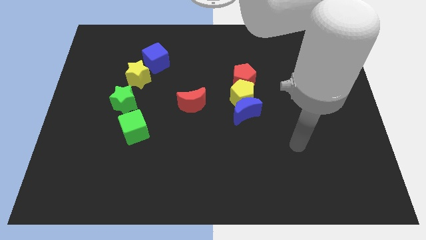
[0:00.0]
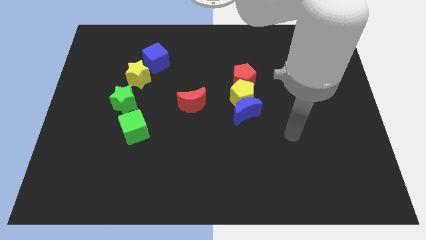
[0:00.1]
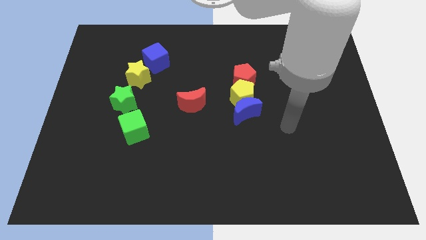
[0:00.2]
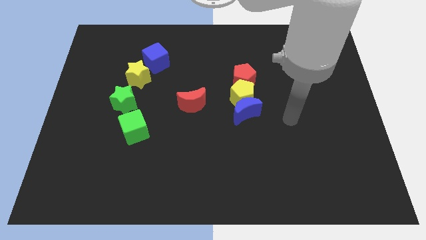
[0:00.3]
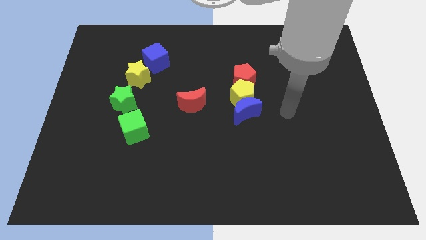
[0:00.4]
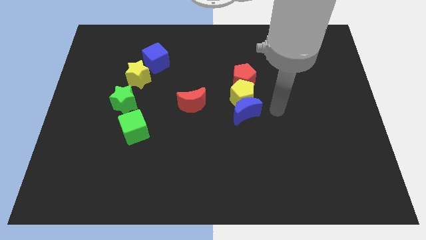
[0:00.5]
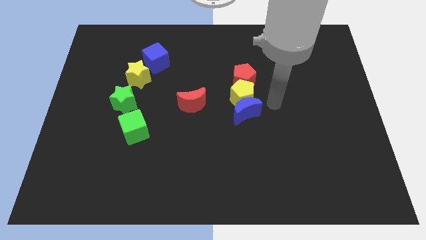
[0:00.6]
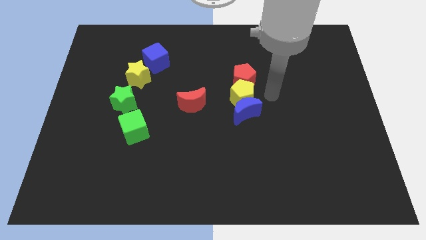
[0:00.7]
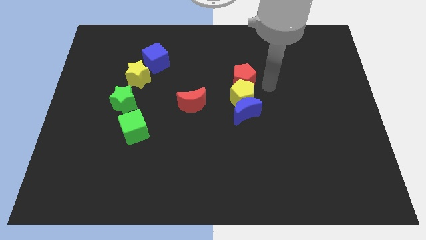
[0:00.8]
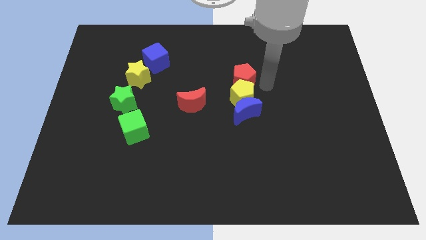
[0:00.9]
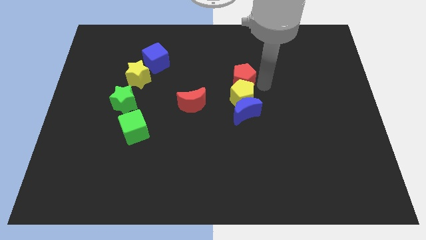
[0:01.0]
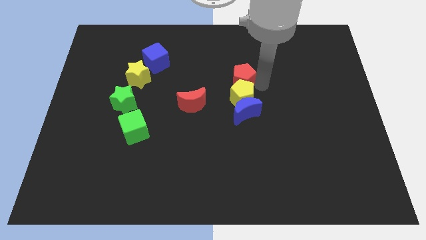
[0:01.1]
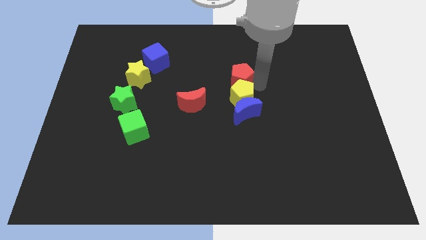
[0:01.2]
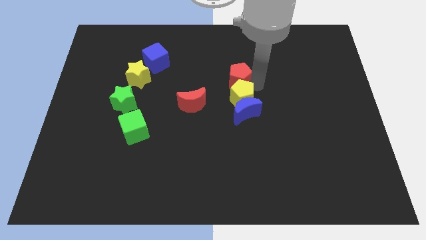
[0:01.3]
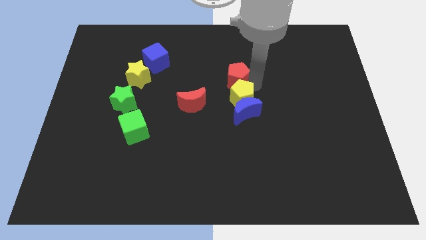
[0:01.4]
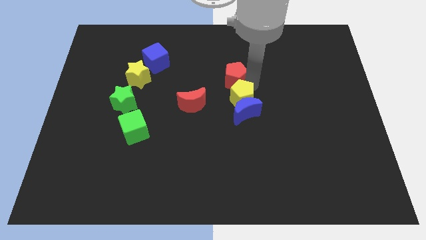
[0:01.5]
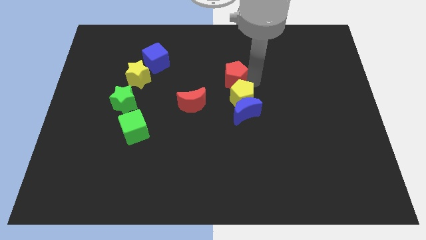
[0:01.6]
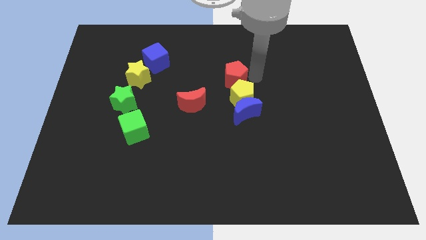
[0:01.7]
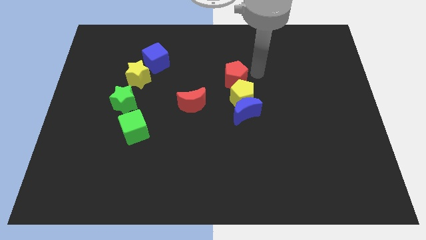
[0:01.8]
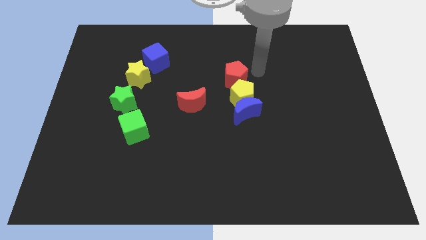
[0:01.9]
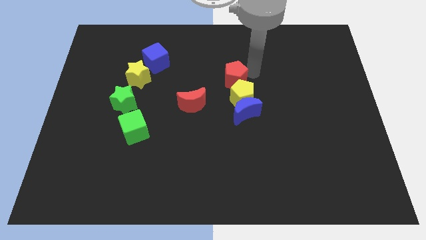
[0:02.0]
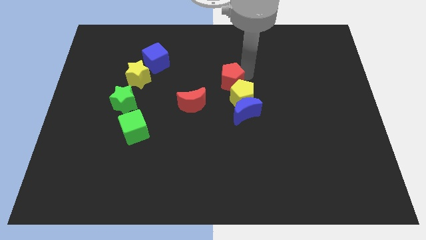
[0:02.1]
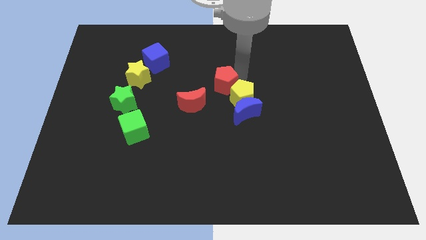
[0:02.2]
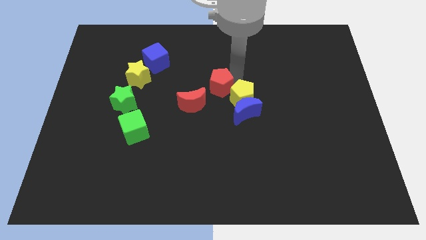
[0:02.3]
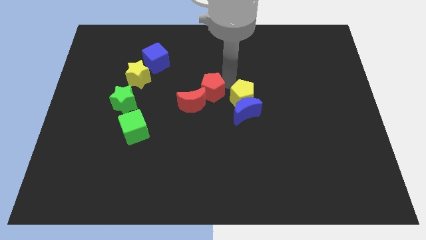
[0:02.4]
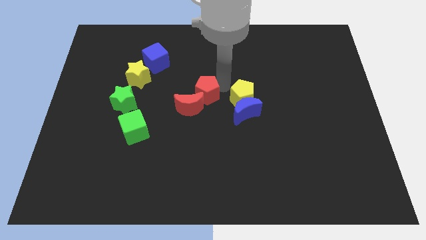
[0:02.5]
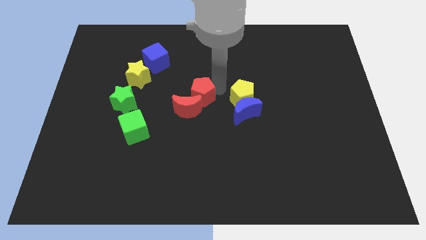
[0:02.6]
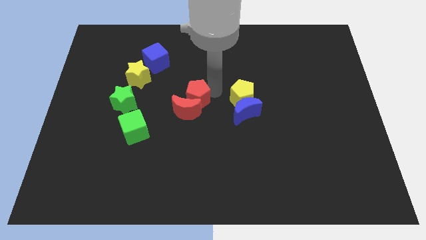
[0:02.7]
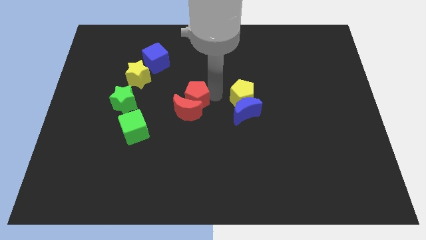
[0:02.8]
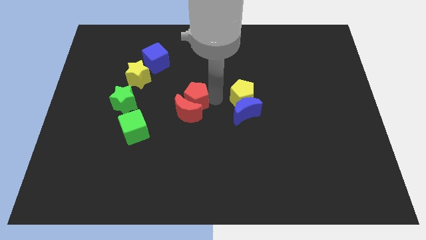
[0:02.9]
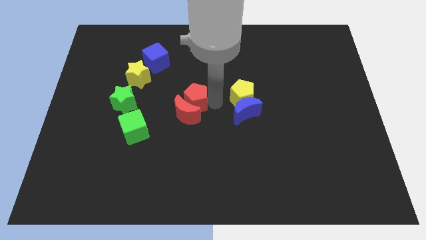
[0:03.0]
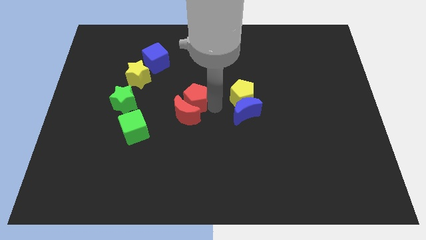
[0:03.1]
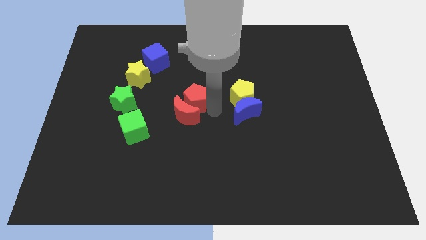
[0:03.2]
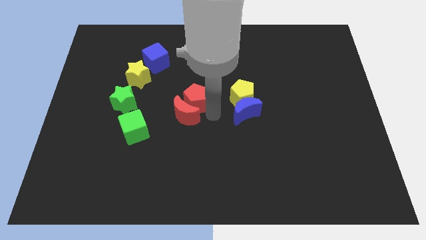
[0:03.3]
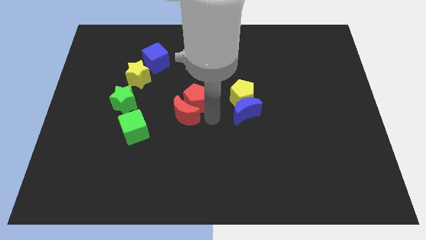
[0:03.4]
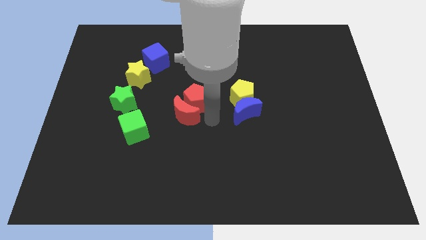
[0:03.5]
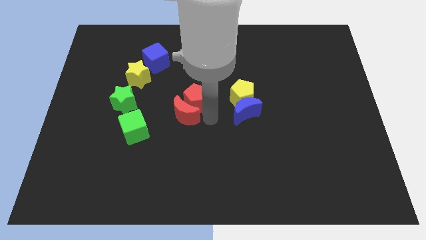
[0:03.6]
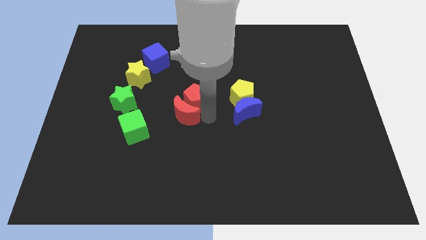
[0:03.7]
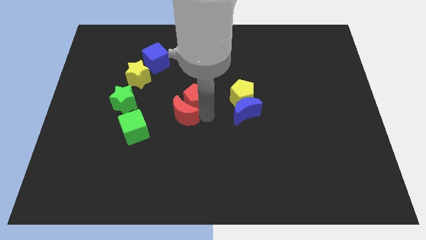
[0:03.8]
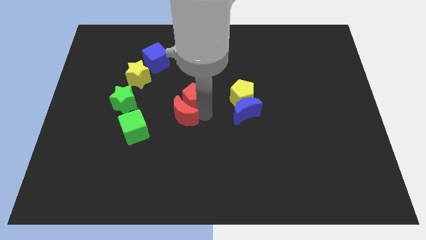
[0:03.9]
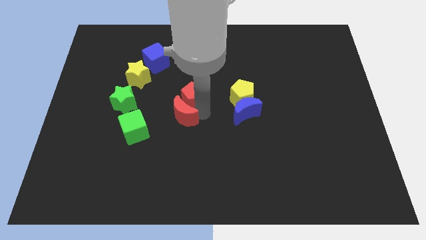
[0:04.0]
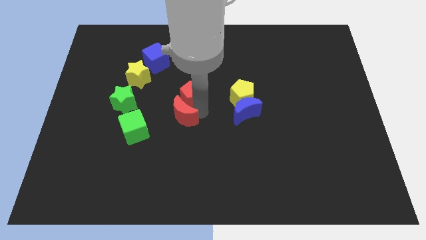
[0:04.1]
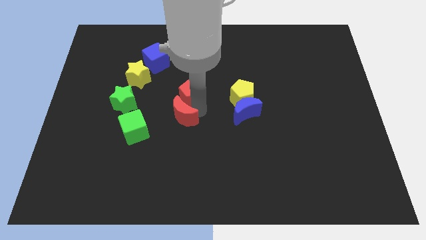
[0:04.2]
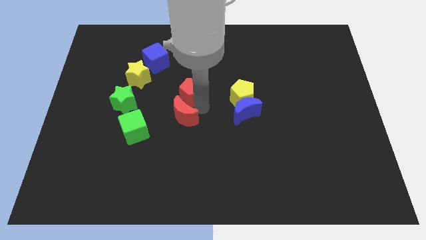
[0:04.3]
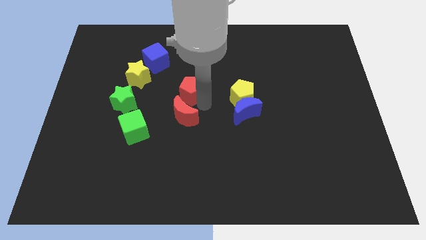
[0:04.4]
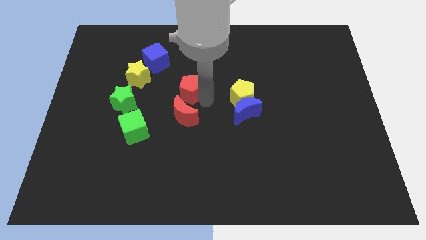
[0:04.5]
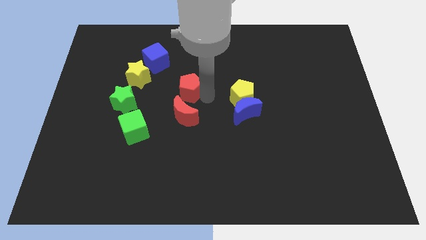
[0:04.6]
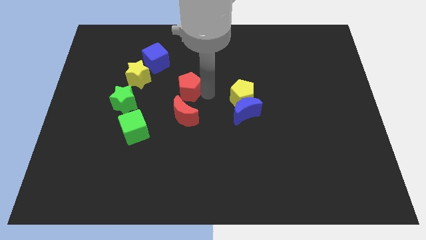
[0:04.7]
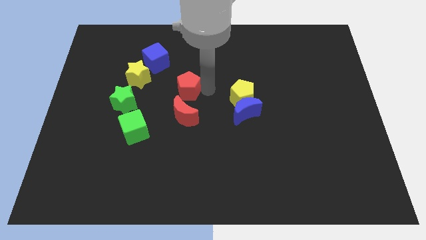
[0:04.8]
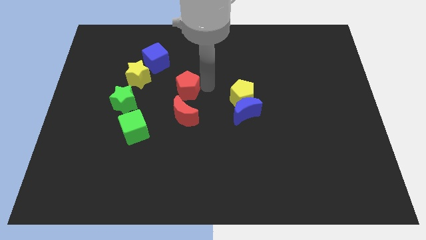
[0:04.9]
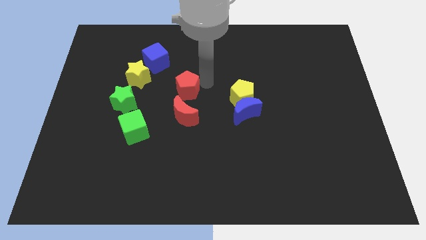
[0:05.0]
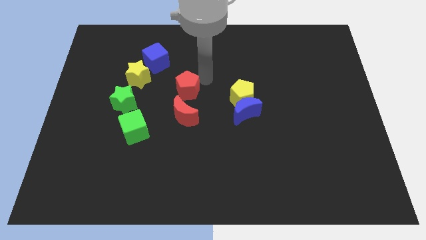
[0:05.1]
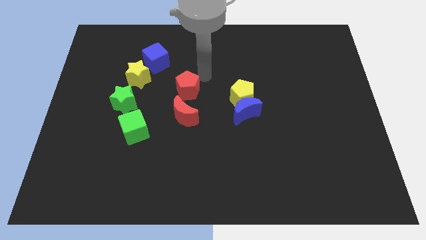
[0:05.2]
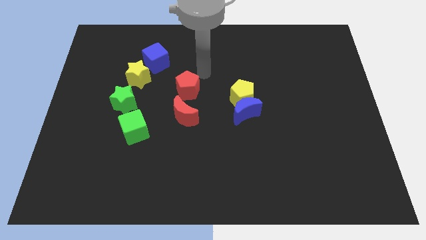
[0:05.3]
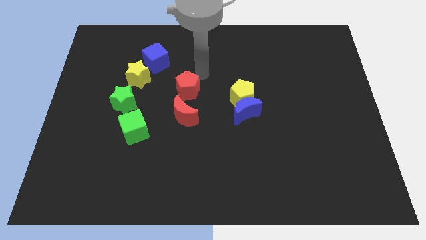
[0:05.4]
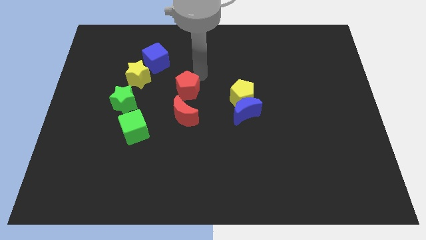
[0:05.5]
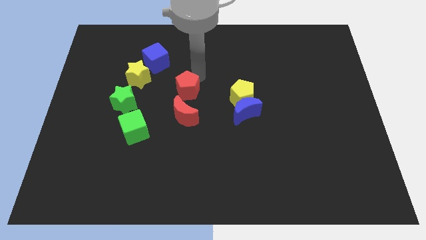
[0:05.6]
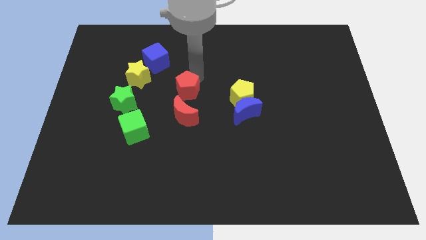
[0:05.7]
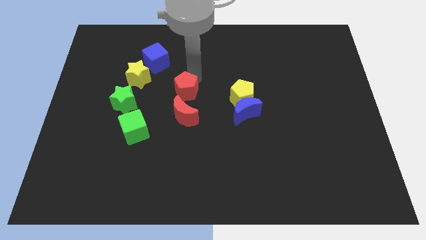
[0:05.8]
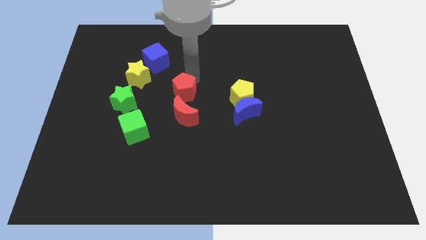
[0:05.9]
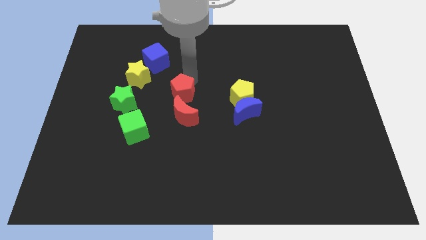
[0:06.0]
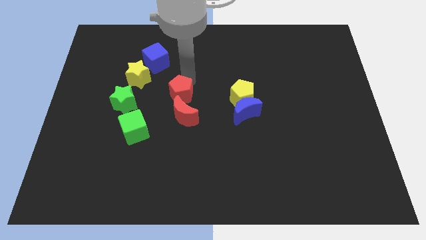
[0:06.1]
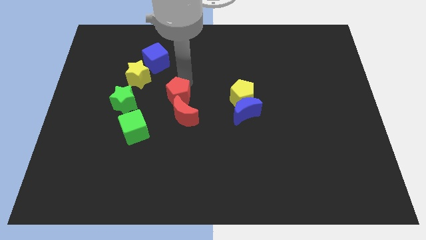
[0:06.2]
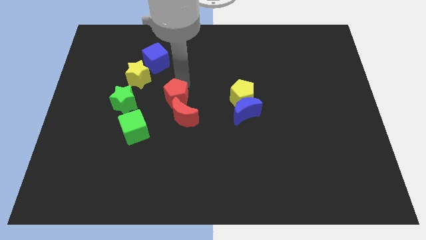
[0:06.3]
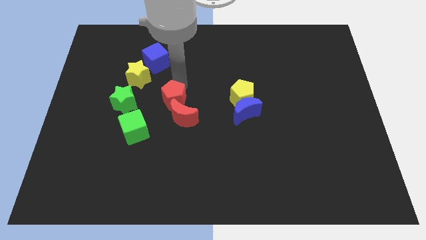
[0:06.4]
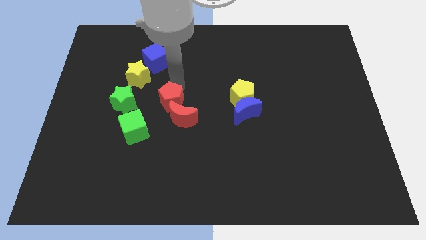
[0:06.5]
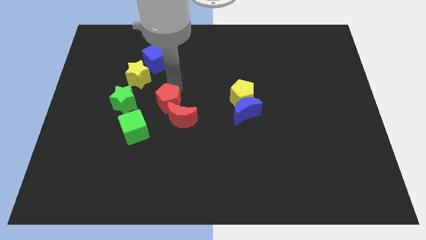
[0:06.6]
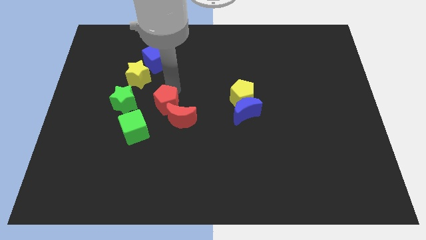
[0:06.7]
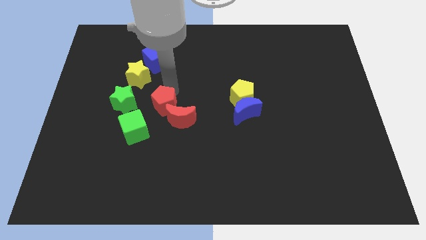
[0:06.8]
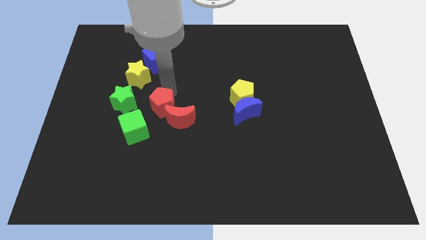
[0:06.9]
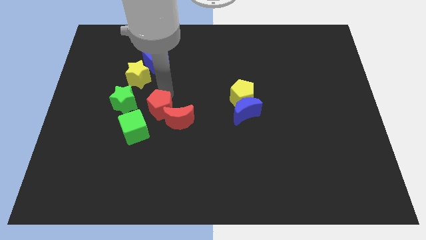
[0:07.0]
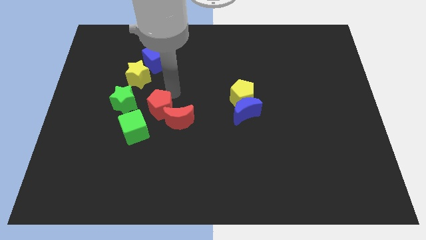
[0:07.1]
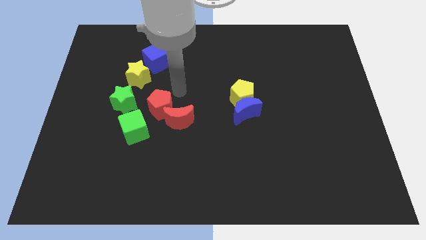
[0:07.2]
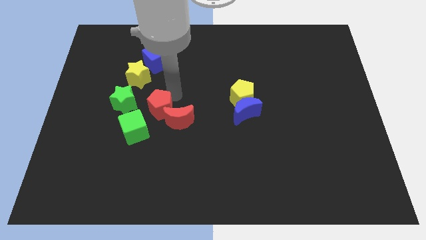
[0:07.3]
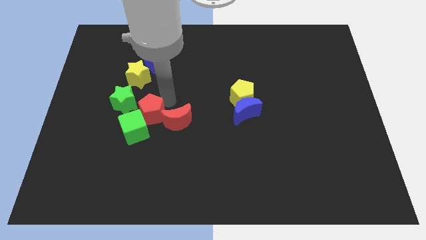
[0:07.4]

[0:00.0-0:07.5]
slide the red pentagon towards the green cube

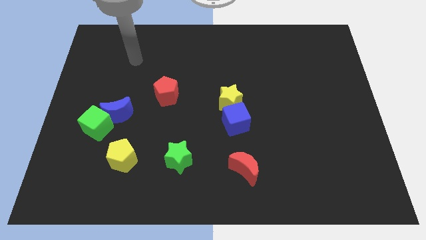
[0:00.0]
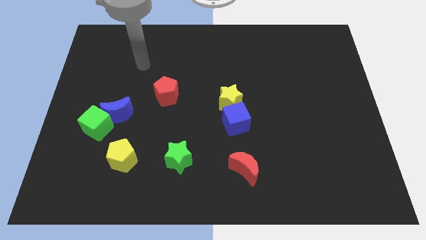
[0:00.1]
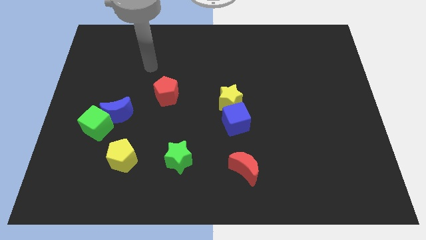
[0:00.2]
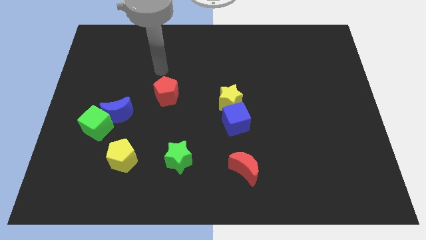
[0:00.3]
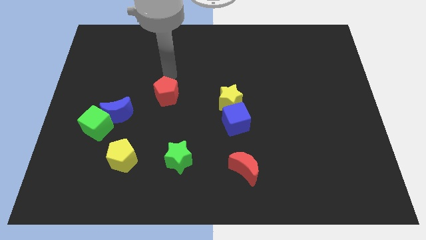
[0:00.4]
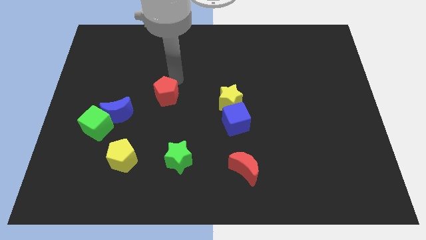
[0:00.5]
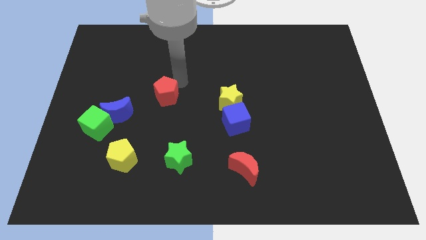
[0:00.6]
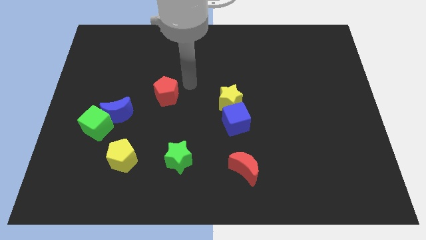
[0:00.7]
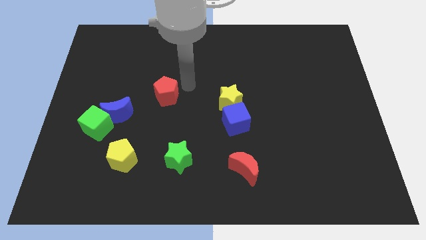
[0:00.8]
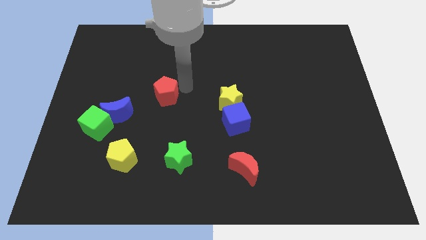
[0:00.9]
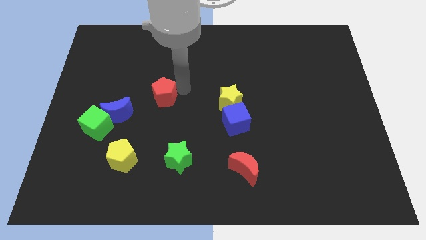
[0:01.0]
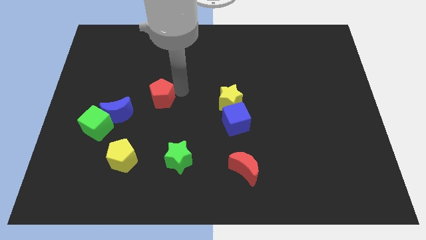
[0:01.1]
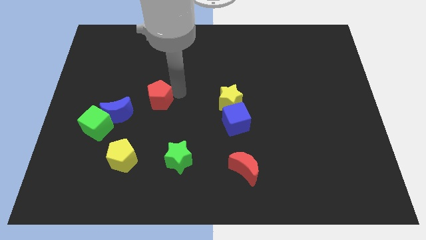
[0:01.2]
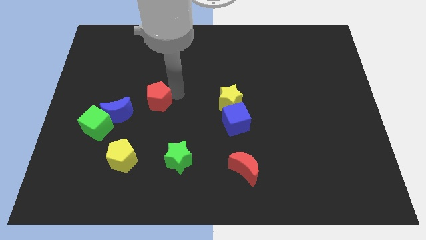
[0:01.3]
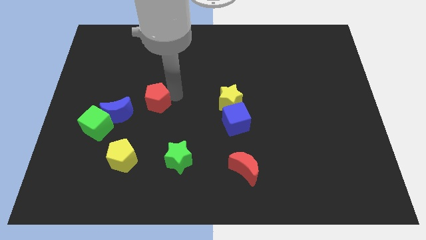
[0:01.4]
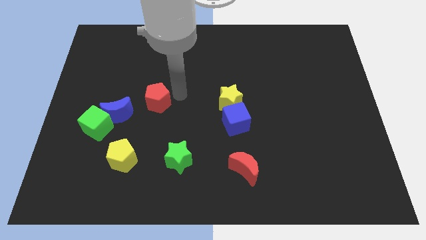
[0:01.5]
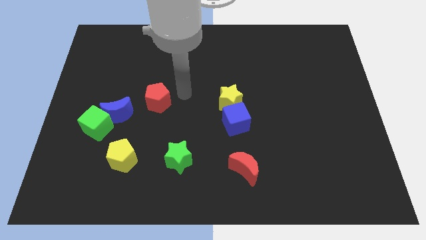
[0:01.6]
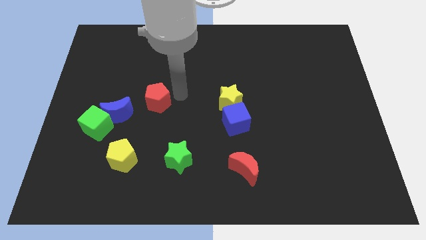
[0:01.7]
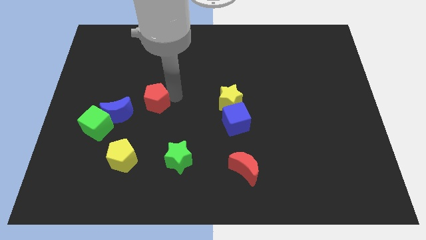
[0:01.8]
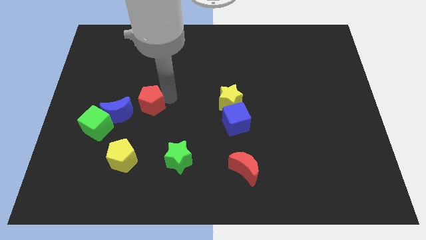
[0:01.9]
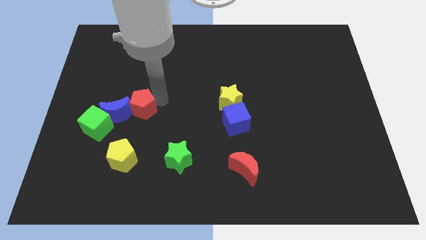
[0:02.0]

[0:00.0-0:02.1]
move the red pentagon close to the blue moon
